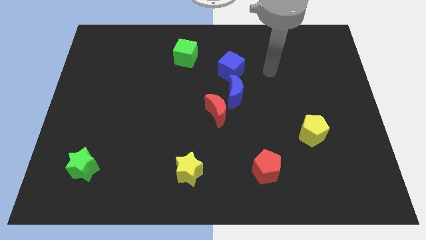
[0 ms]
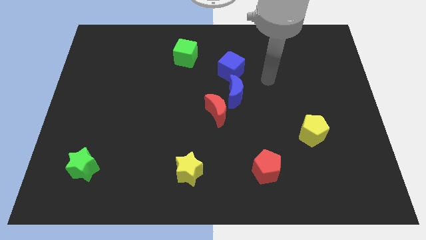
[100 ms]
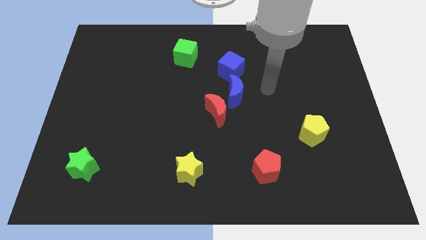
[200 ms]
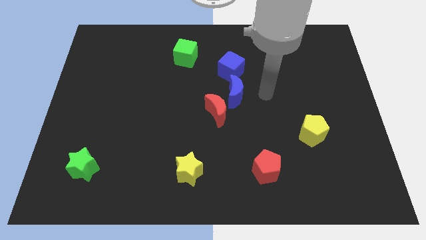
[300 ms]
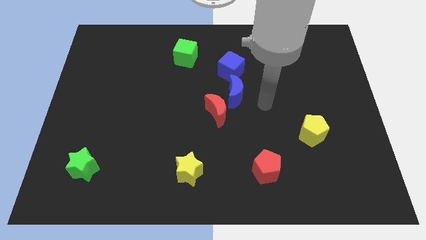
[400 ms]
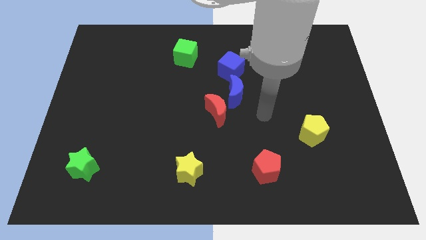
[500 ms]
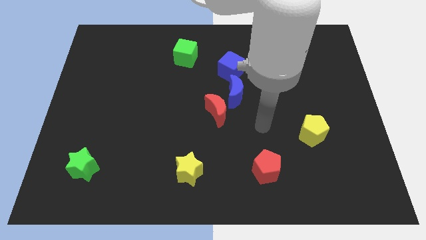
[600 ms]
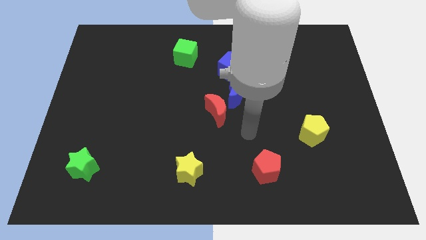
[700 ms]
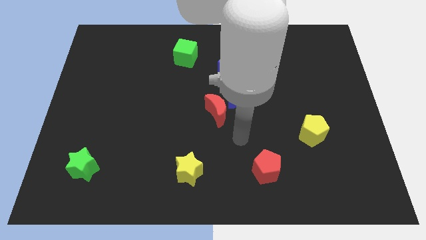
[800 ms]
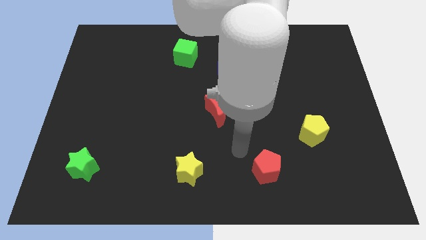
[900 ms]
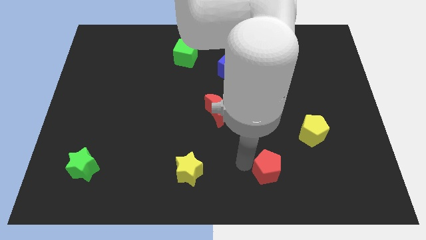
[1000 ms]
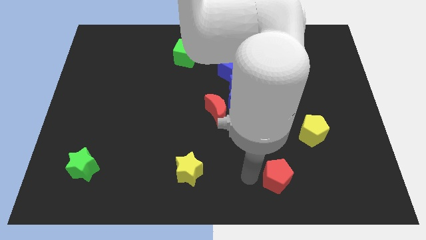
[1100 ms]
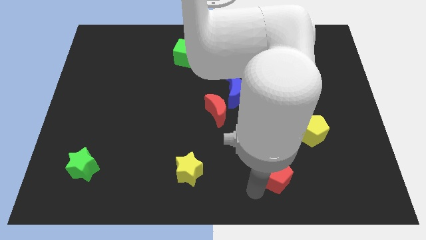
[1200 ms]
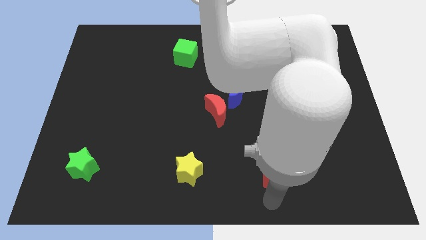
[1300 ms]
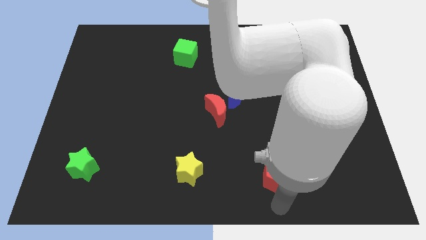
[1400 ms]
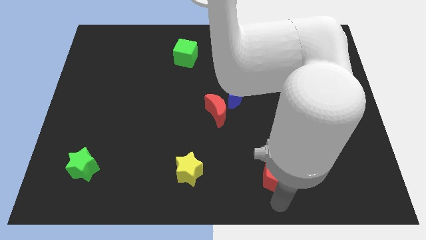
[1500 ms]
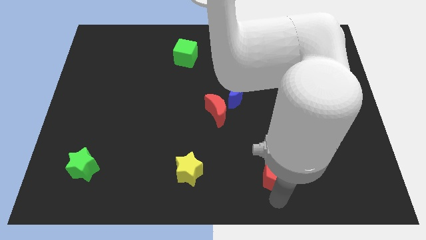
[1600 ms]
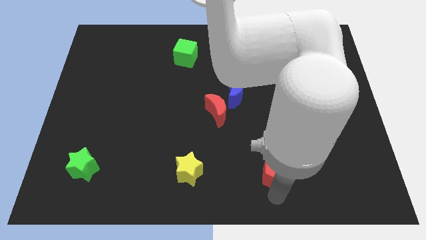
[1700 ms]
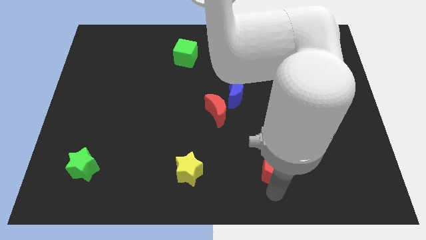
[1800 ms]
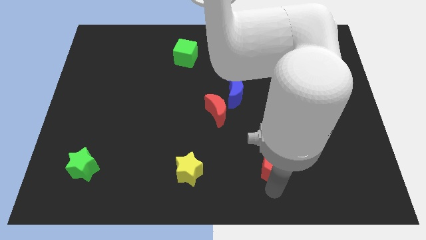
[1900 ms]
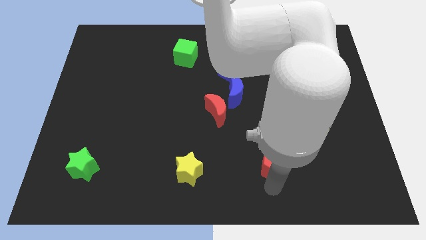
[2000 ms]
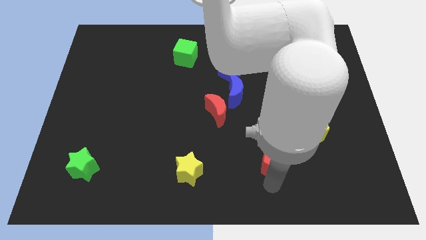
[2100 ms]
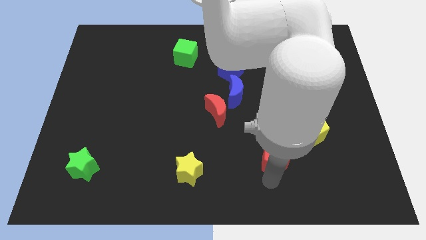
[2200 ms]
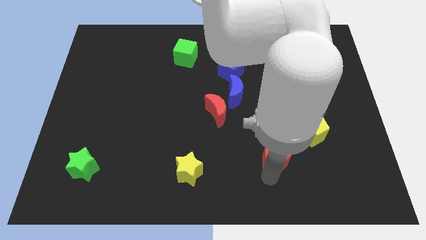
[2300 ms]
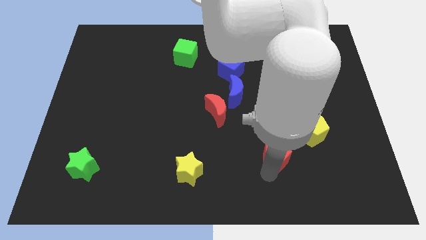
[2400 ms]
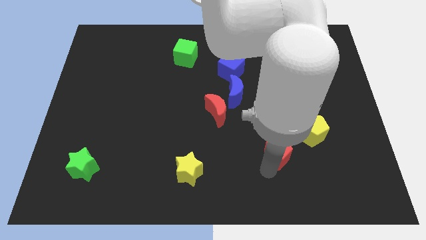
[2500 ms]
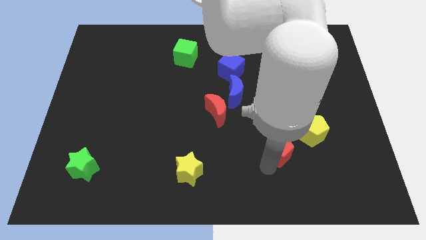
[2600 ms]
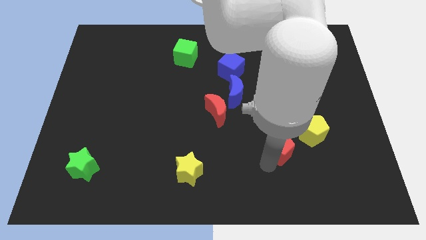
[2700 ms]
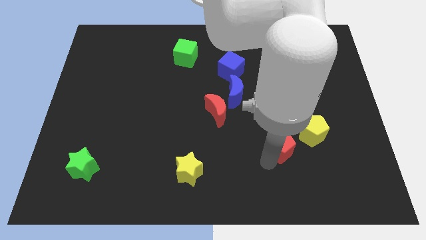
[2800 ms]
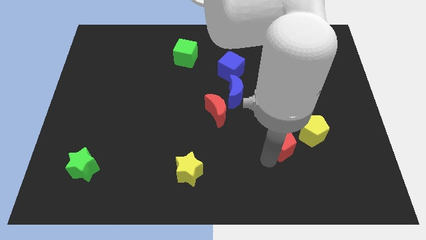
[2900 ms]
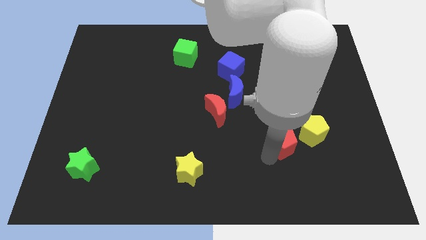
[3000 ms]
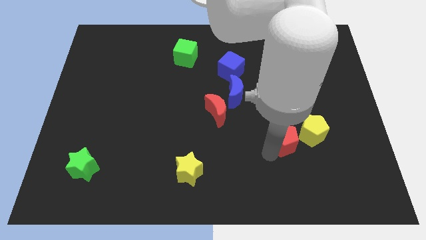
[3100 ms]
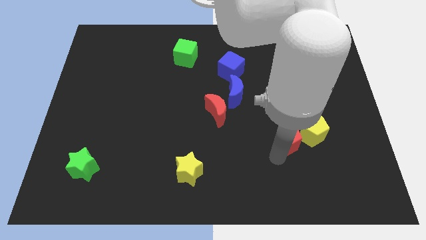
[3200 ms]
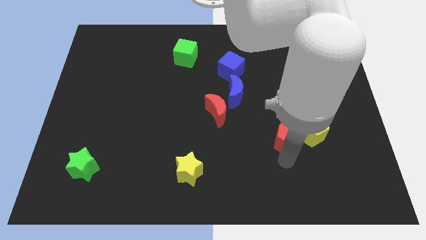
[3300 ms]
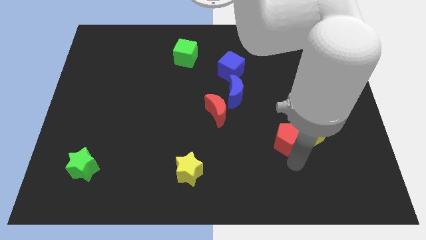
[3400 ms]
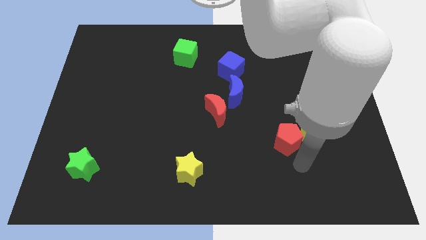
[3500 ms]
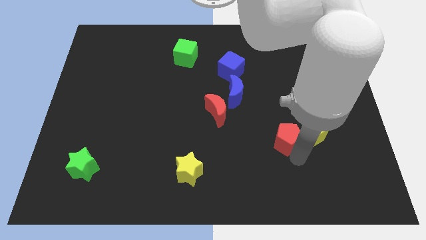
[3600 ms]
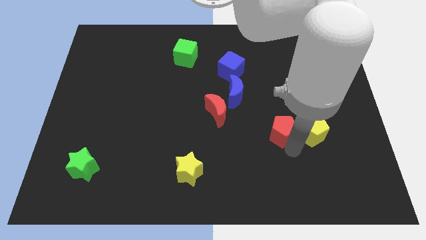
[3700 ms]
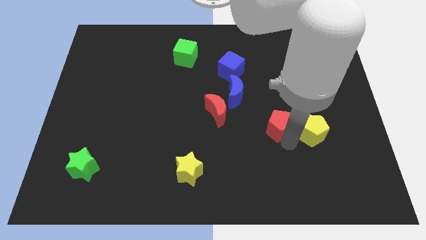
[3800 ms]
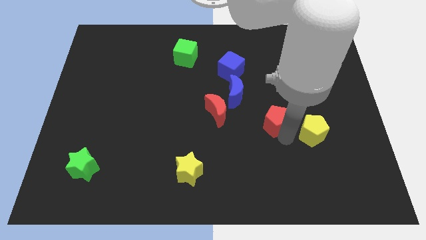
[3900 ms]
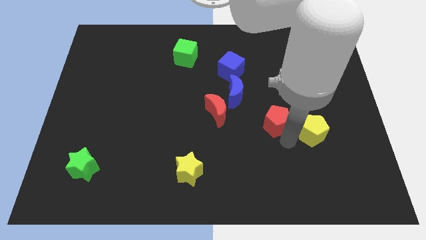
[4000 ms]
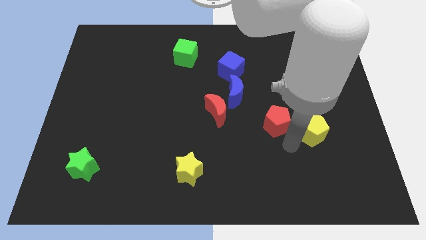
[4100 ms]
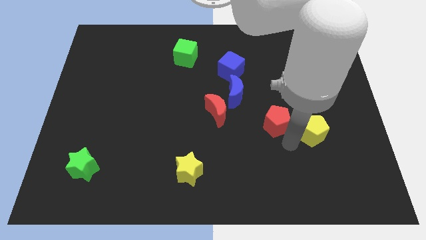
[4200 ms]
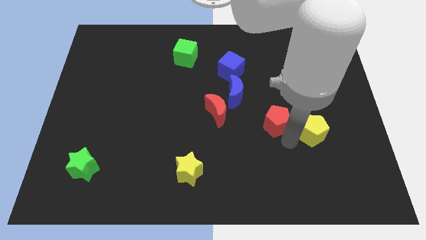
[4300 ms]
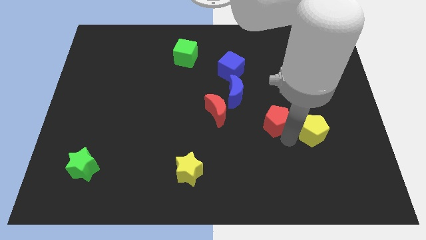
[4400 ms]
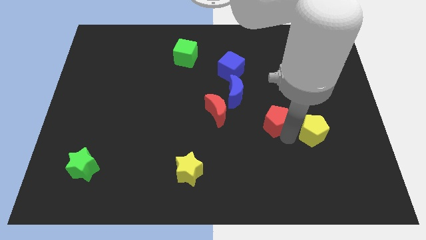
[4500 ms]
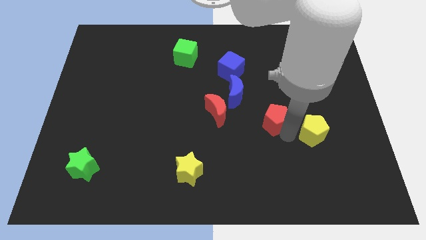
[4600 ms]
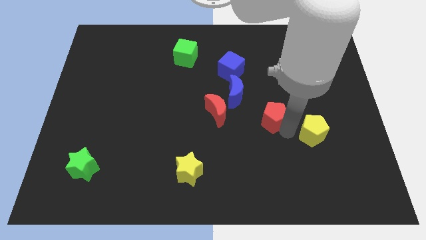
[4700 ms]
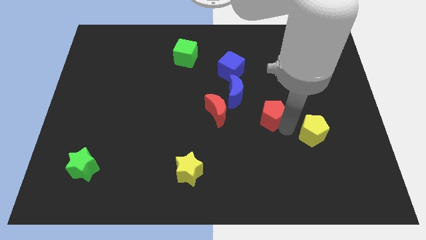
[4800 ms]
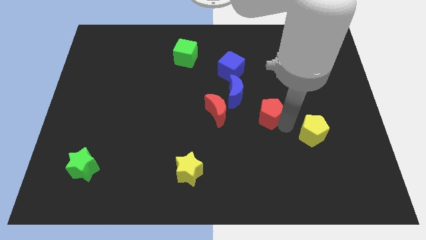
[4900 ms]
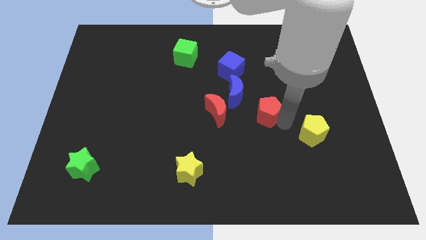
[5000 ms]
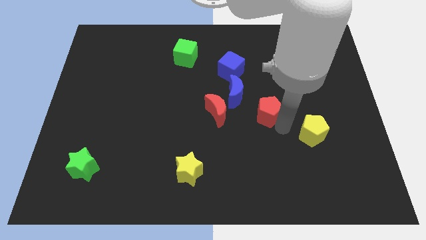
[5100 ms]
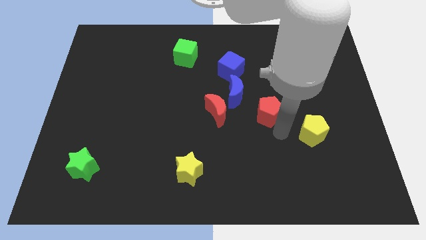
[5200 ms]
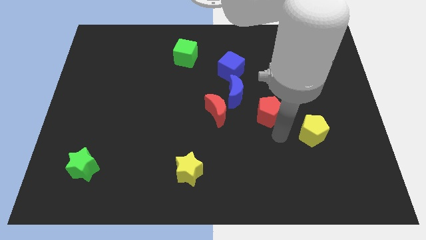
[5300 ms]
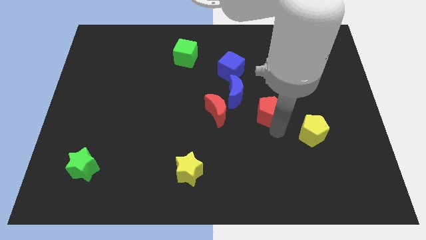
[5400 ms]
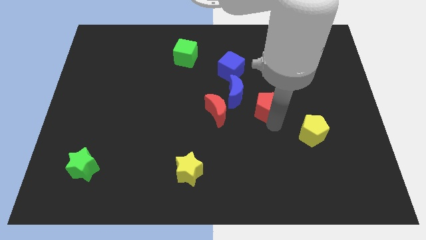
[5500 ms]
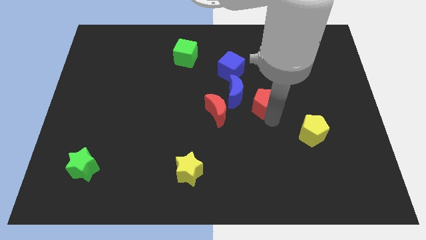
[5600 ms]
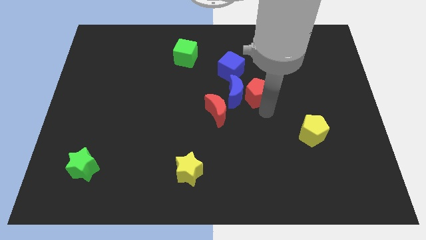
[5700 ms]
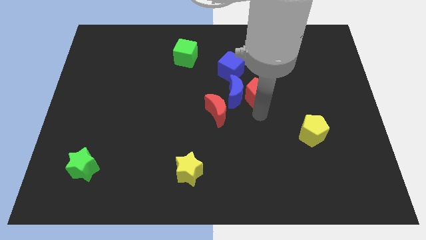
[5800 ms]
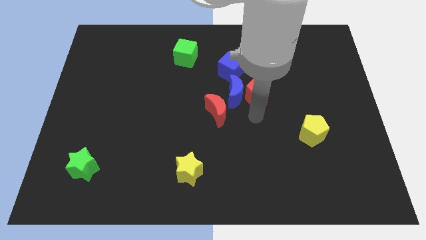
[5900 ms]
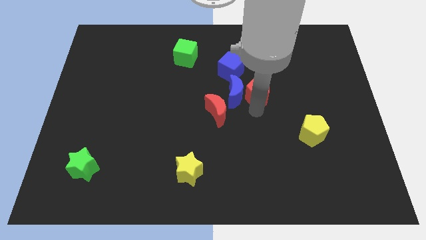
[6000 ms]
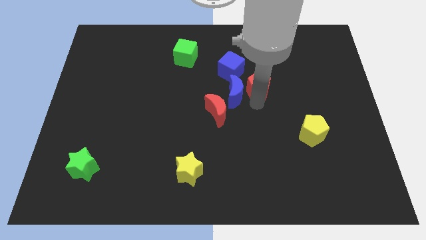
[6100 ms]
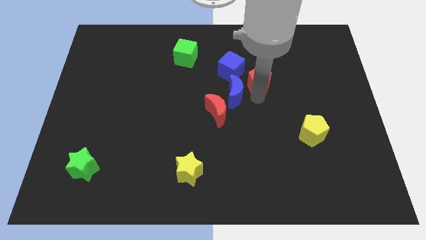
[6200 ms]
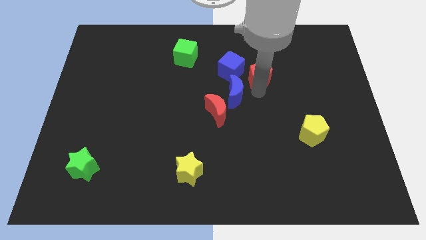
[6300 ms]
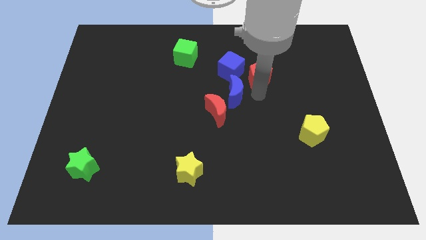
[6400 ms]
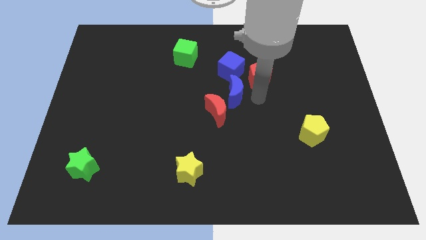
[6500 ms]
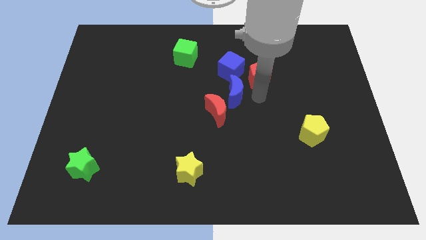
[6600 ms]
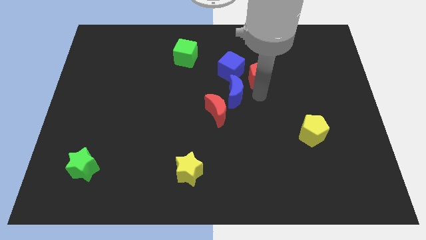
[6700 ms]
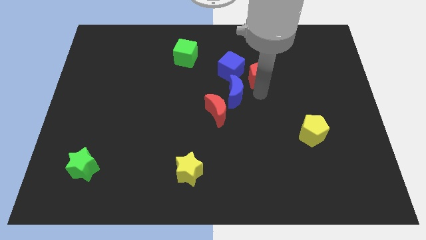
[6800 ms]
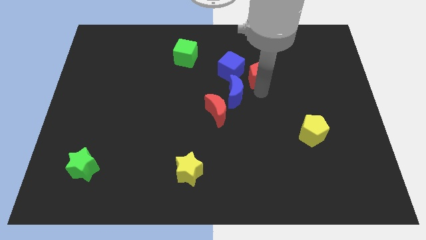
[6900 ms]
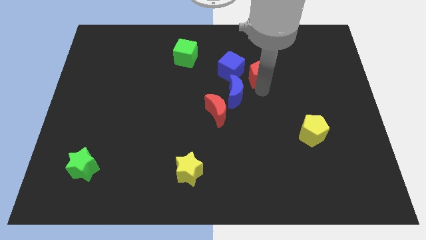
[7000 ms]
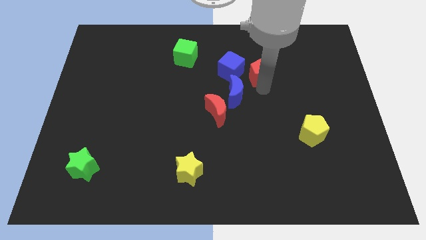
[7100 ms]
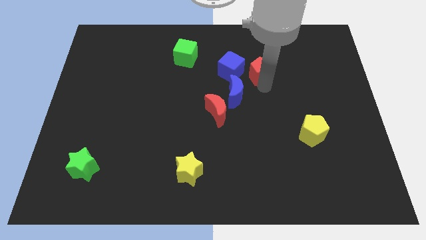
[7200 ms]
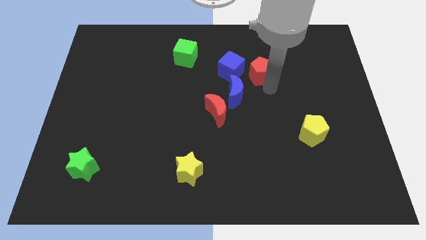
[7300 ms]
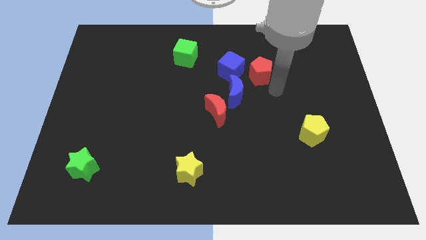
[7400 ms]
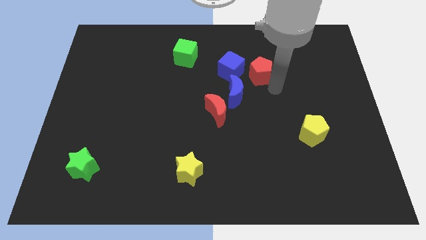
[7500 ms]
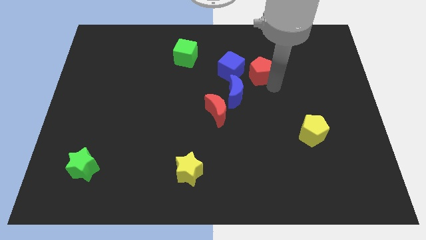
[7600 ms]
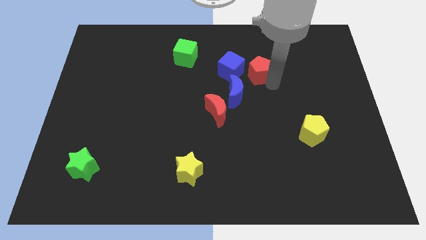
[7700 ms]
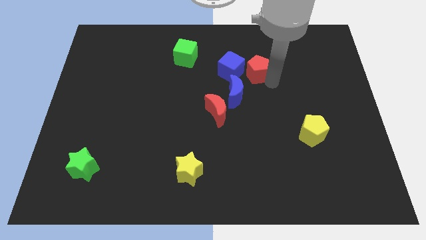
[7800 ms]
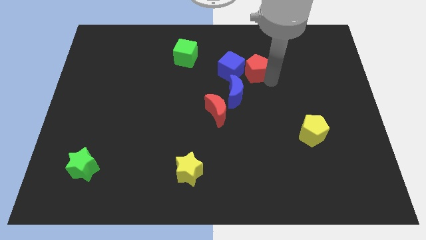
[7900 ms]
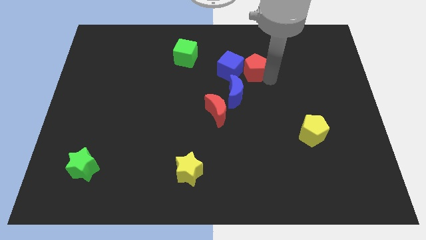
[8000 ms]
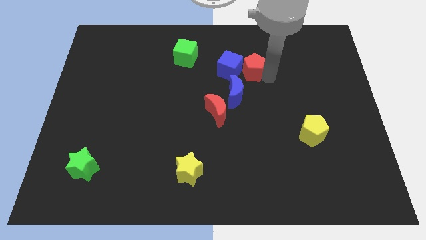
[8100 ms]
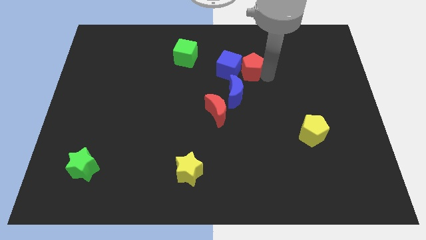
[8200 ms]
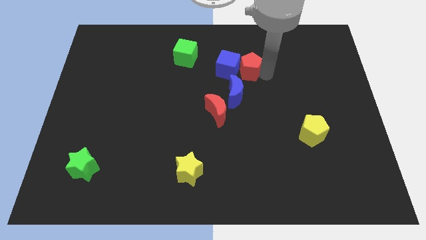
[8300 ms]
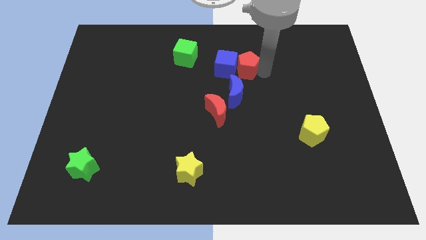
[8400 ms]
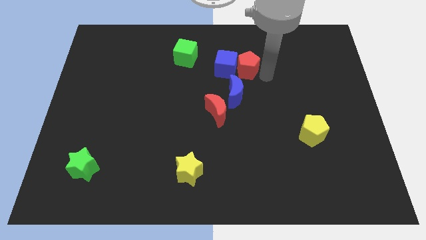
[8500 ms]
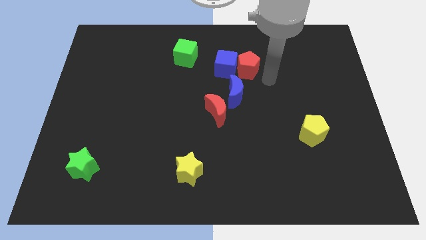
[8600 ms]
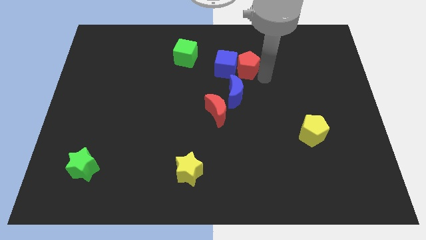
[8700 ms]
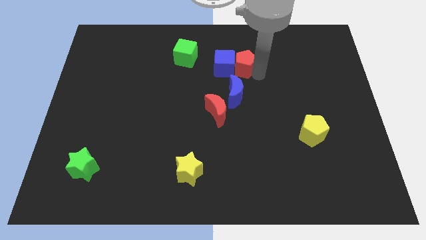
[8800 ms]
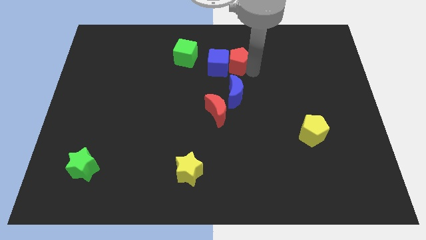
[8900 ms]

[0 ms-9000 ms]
move the red pentagon to the right of the green cube
